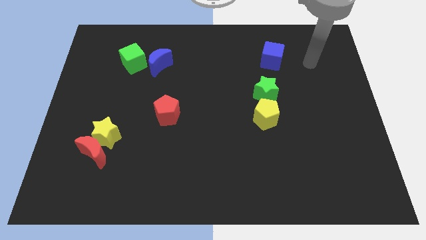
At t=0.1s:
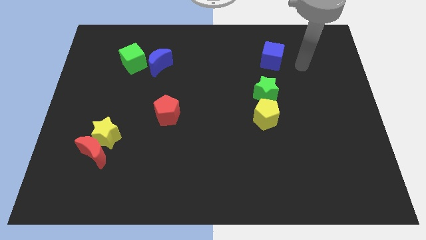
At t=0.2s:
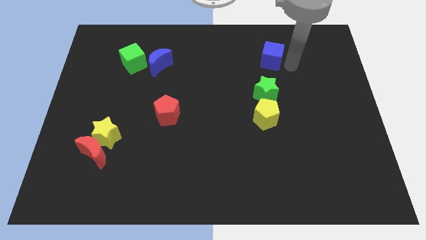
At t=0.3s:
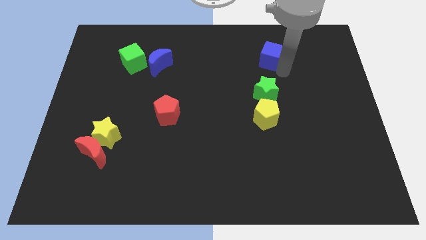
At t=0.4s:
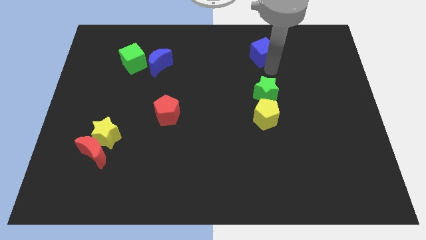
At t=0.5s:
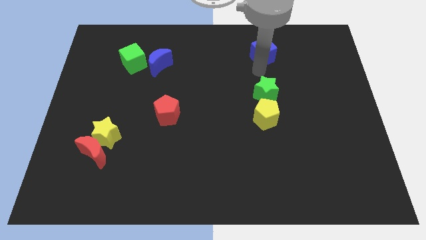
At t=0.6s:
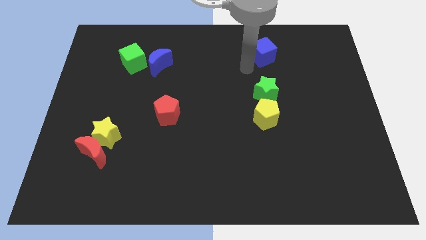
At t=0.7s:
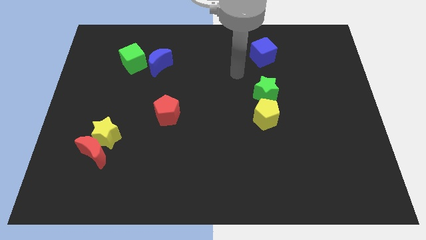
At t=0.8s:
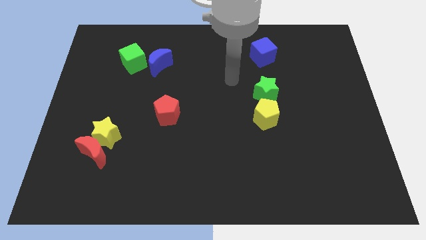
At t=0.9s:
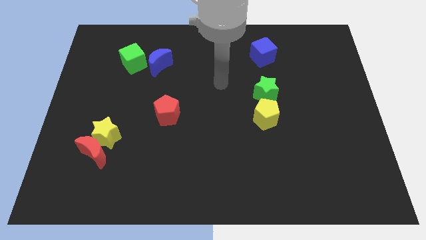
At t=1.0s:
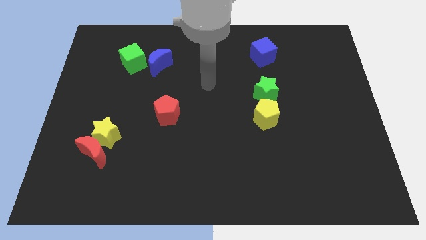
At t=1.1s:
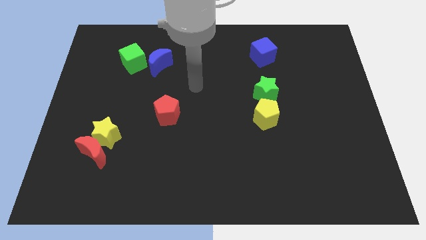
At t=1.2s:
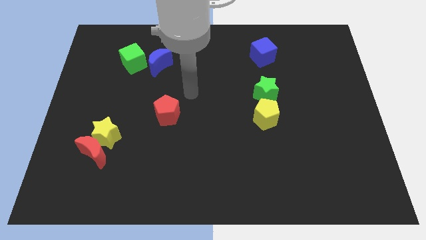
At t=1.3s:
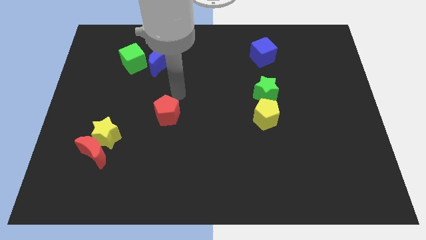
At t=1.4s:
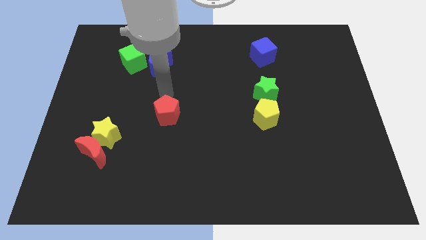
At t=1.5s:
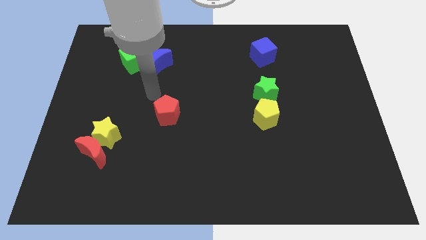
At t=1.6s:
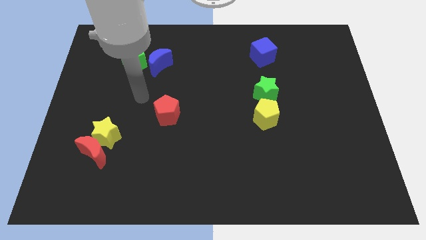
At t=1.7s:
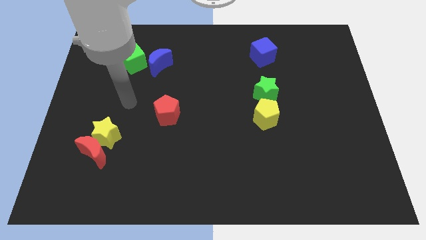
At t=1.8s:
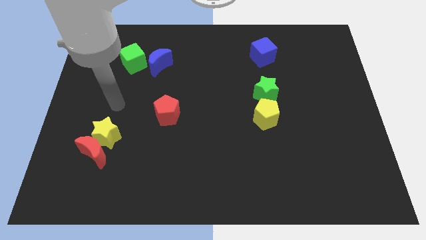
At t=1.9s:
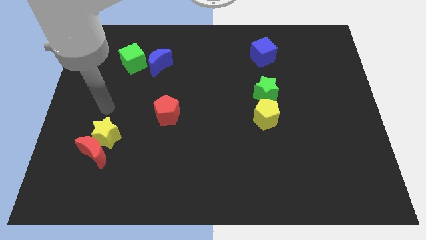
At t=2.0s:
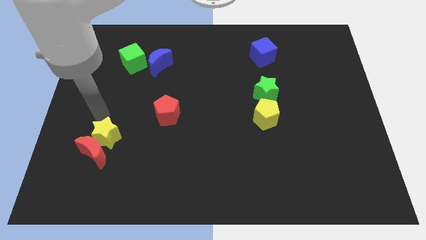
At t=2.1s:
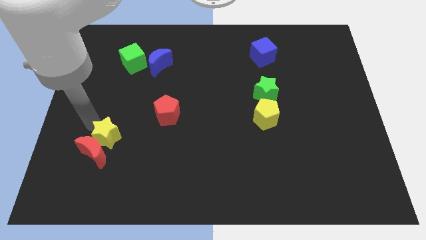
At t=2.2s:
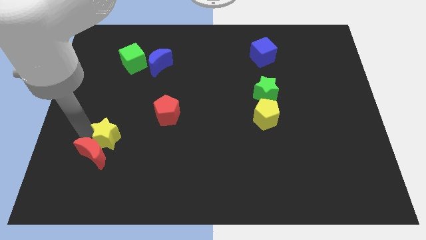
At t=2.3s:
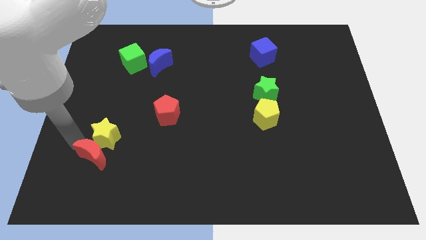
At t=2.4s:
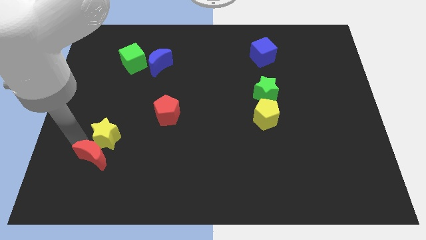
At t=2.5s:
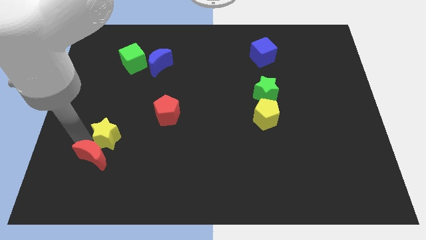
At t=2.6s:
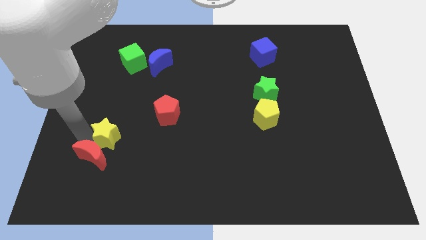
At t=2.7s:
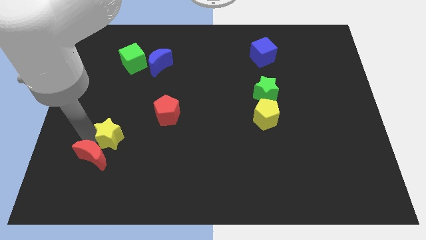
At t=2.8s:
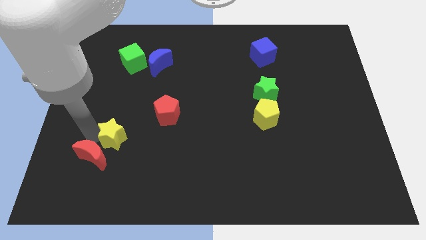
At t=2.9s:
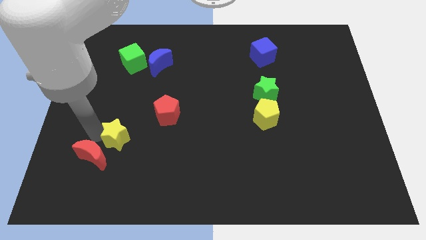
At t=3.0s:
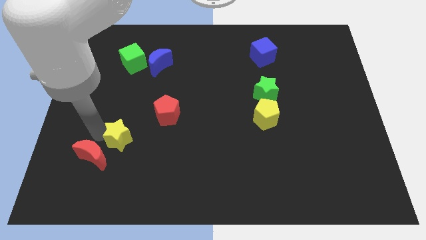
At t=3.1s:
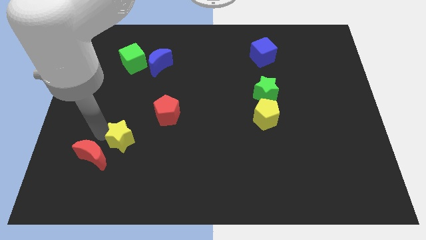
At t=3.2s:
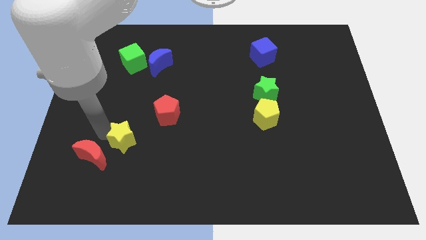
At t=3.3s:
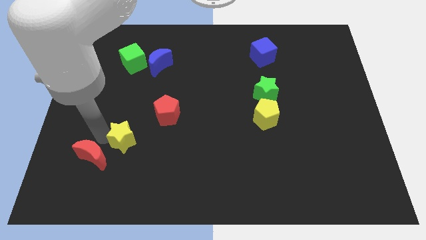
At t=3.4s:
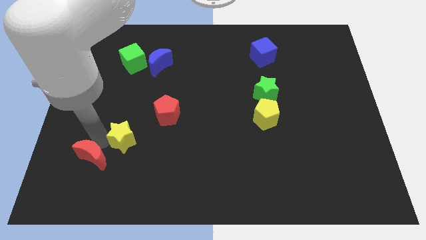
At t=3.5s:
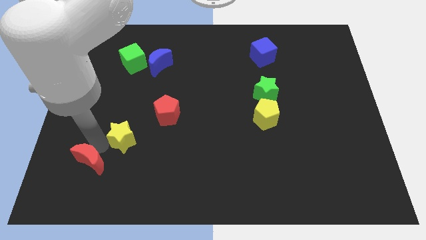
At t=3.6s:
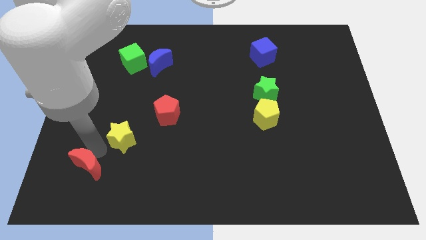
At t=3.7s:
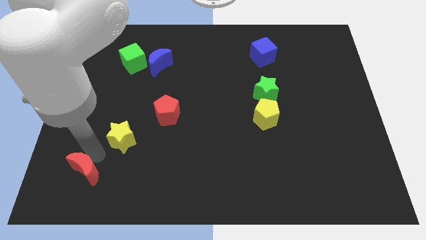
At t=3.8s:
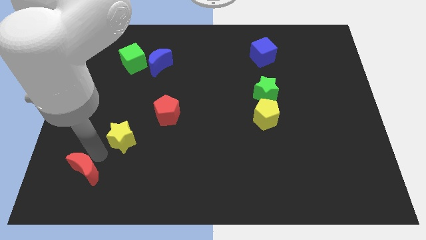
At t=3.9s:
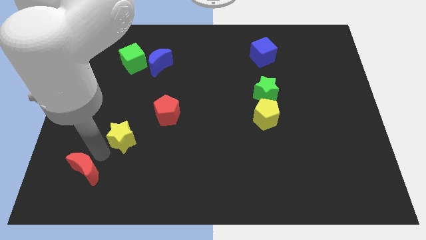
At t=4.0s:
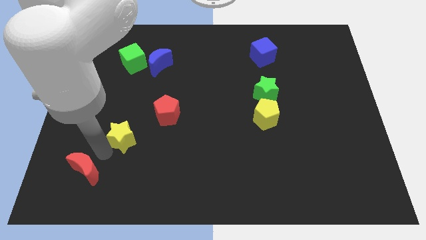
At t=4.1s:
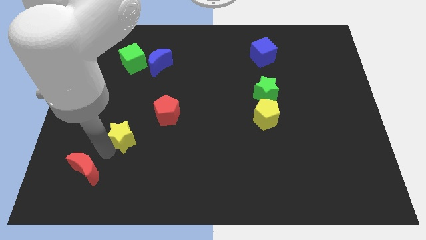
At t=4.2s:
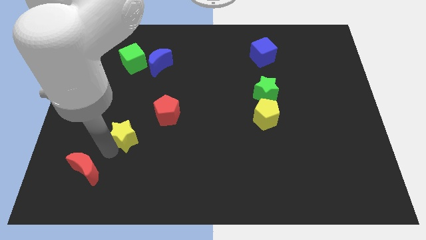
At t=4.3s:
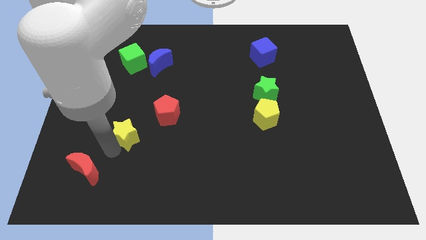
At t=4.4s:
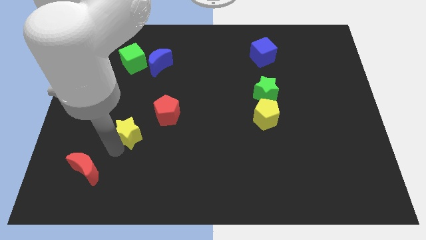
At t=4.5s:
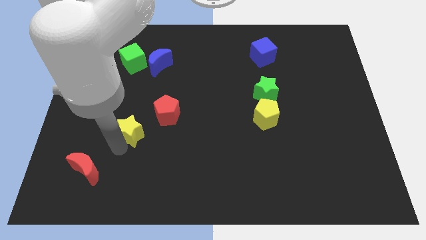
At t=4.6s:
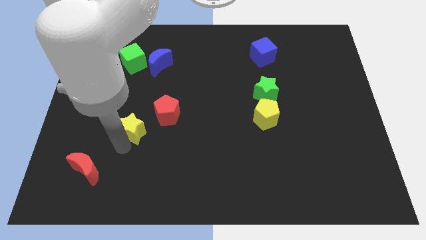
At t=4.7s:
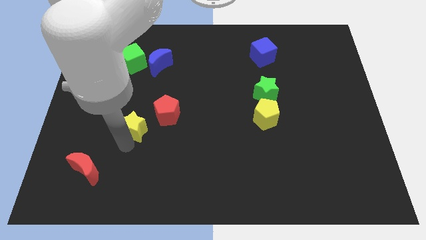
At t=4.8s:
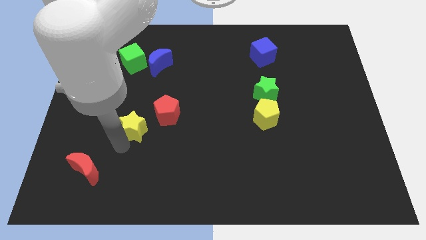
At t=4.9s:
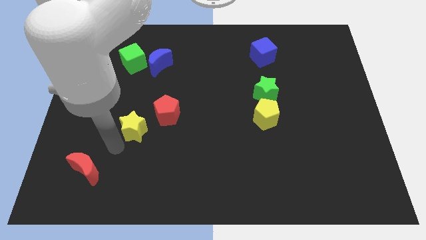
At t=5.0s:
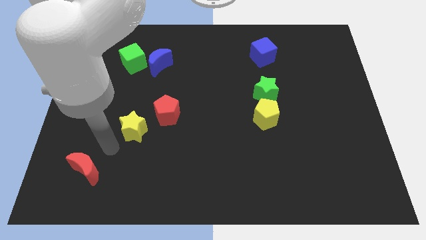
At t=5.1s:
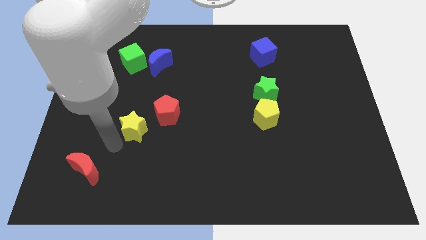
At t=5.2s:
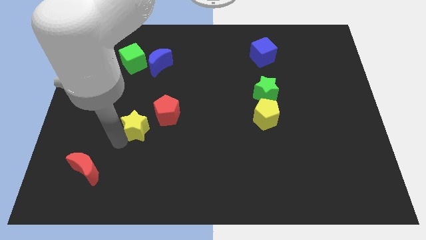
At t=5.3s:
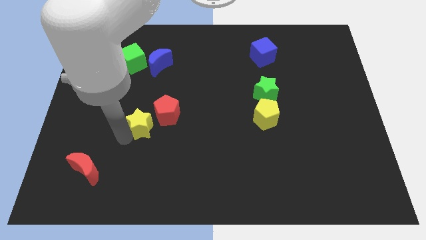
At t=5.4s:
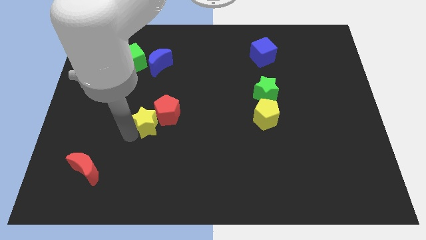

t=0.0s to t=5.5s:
slide the yellow star close to the red pentagon

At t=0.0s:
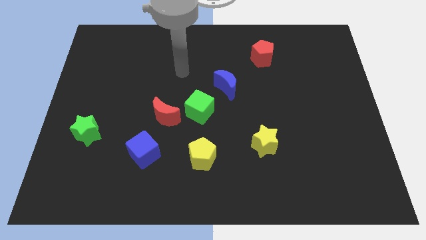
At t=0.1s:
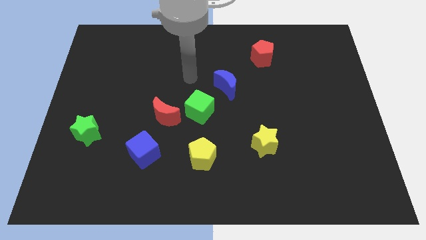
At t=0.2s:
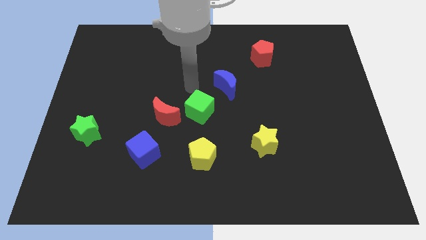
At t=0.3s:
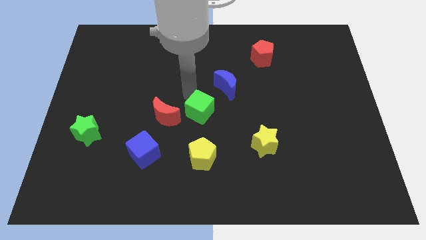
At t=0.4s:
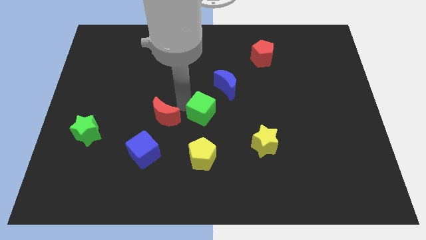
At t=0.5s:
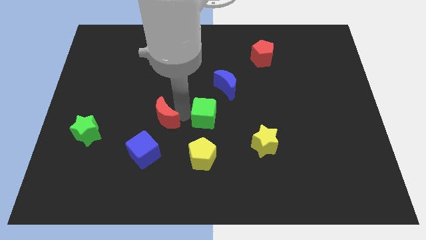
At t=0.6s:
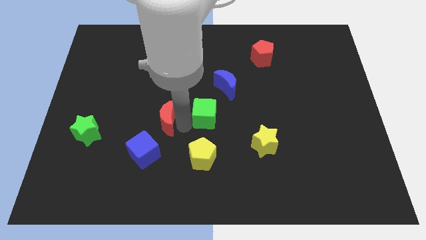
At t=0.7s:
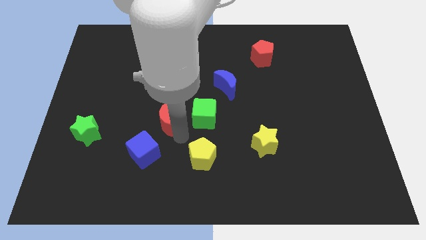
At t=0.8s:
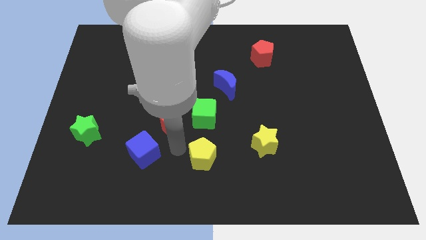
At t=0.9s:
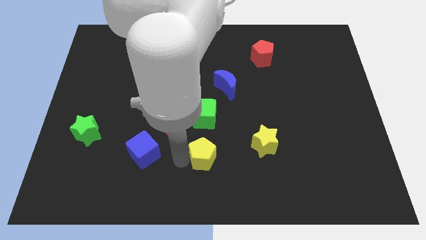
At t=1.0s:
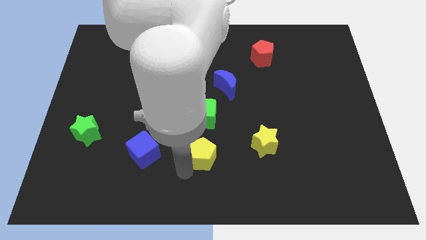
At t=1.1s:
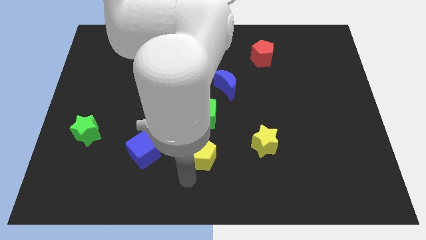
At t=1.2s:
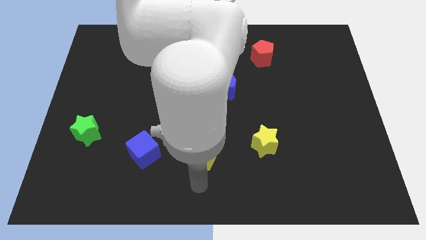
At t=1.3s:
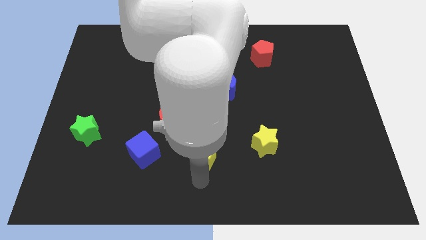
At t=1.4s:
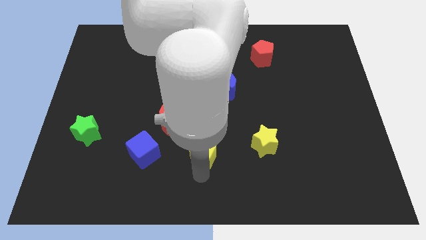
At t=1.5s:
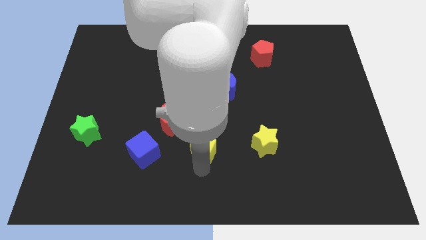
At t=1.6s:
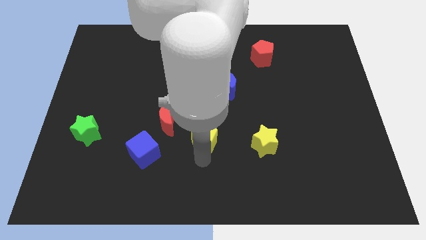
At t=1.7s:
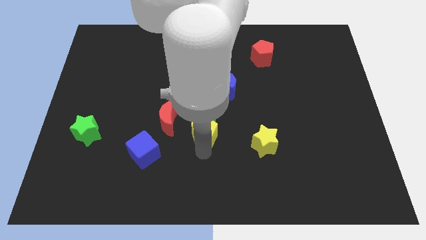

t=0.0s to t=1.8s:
slide the yellow pentagon to the green cube
